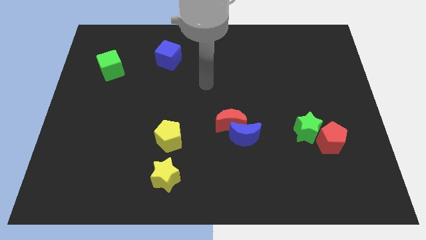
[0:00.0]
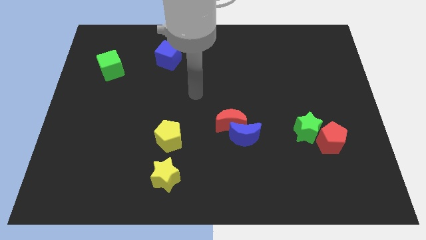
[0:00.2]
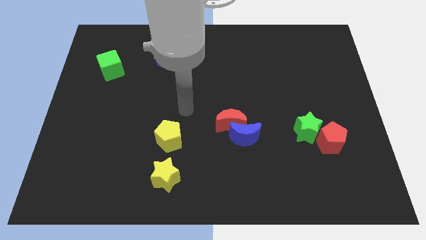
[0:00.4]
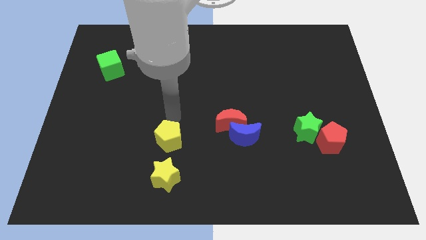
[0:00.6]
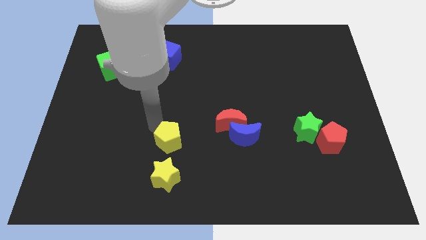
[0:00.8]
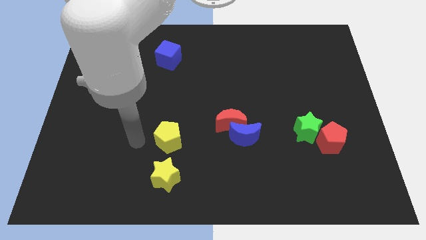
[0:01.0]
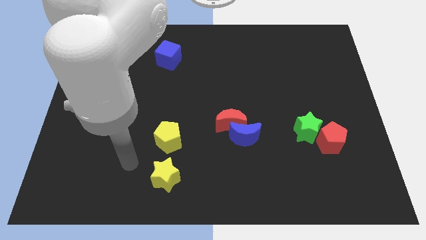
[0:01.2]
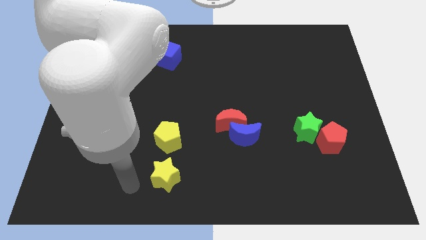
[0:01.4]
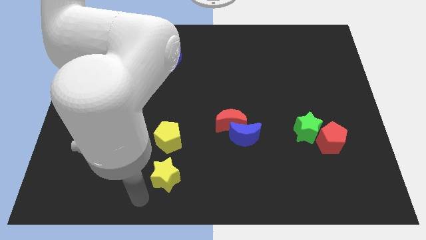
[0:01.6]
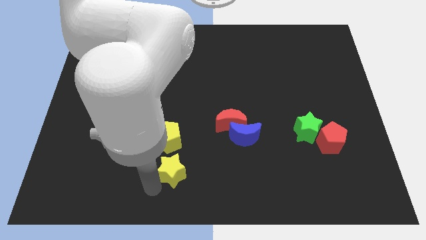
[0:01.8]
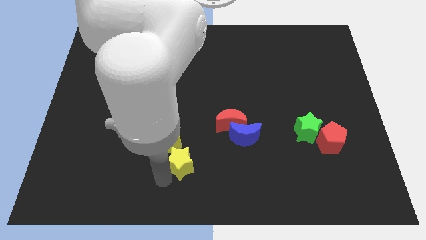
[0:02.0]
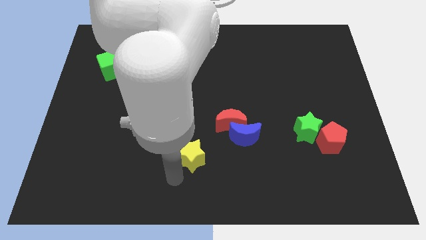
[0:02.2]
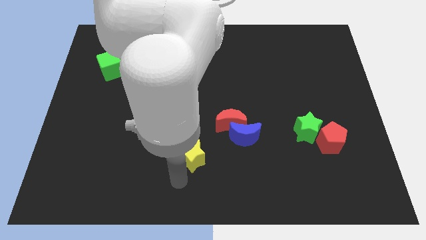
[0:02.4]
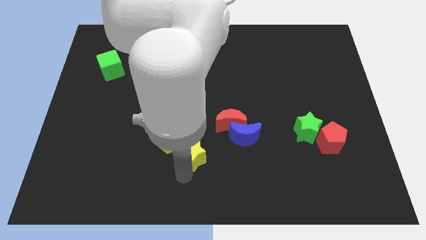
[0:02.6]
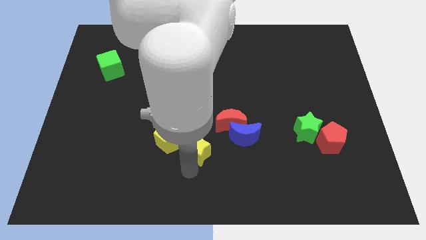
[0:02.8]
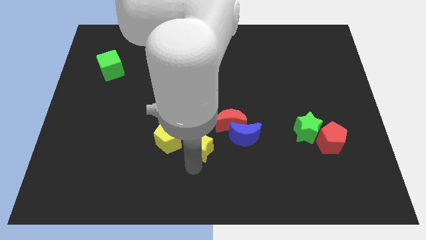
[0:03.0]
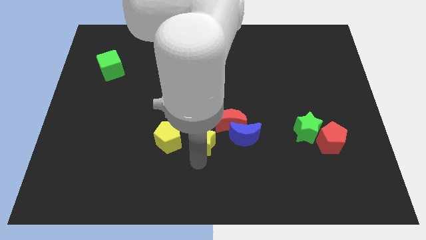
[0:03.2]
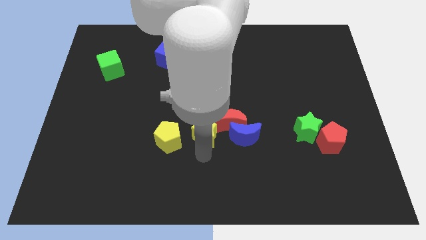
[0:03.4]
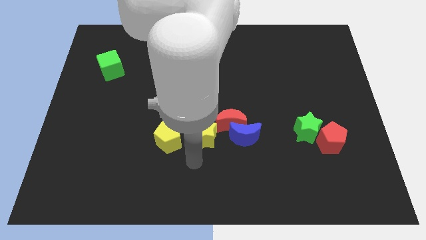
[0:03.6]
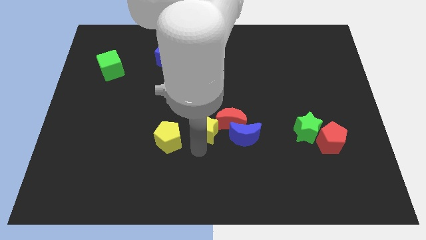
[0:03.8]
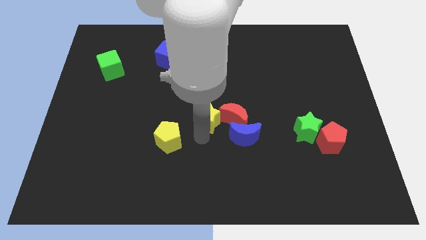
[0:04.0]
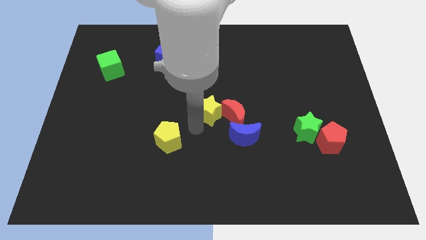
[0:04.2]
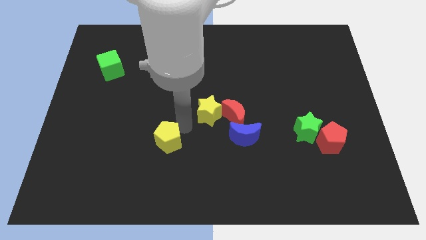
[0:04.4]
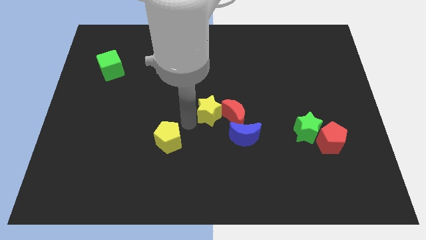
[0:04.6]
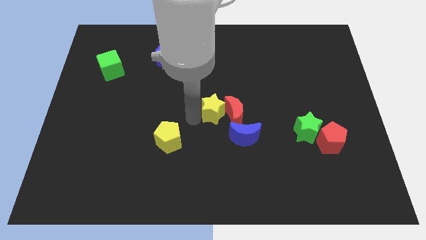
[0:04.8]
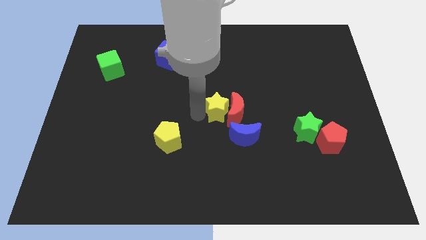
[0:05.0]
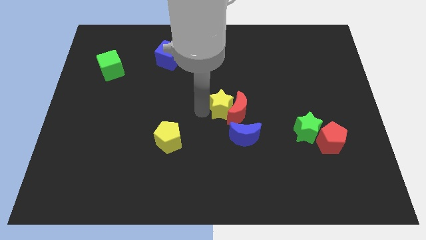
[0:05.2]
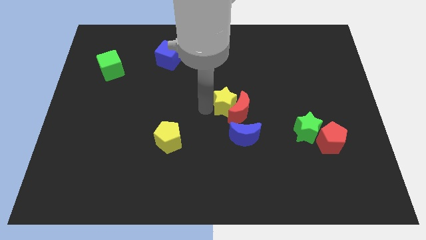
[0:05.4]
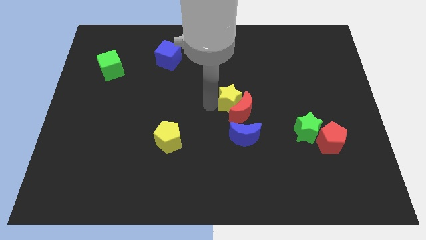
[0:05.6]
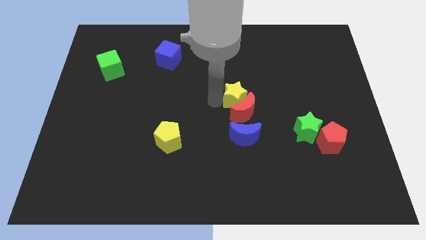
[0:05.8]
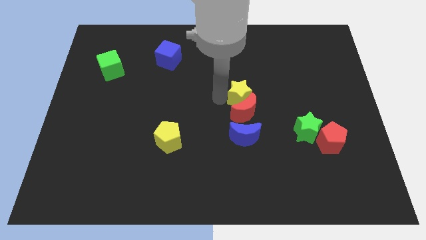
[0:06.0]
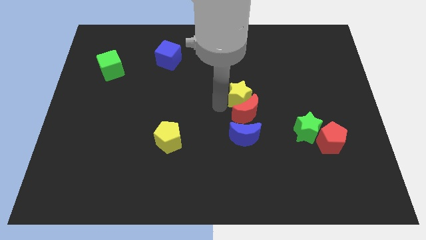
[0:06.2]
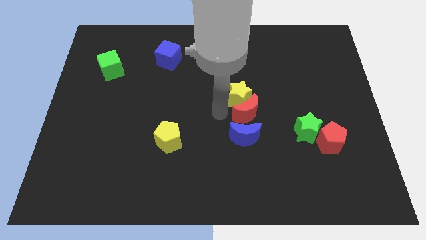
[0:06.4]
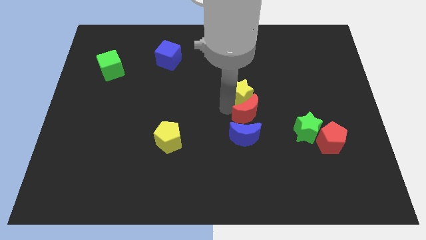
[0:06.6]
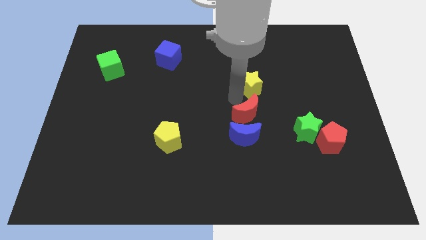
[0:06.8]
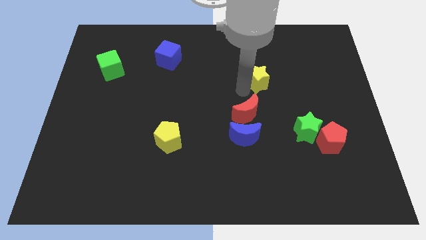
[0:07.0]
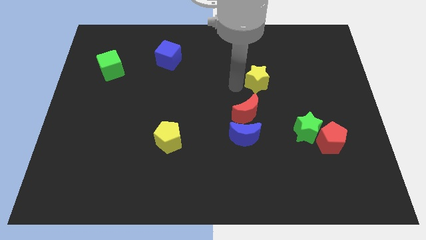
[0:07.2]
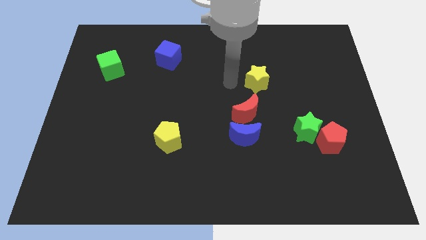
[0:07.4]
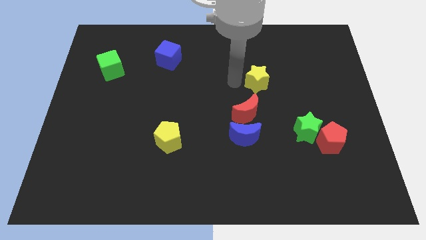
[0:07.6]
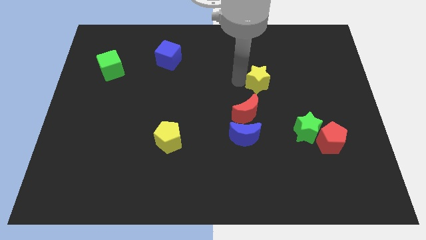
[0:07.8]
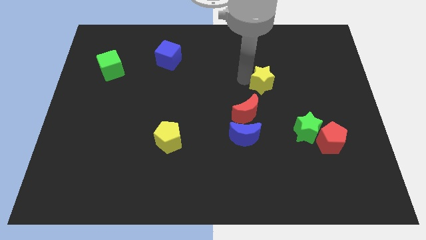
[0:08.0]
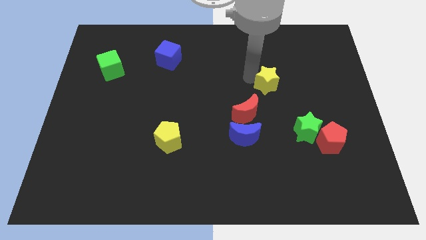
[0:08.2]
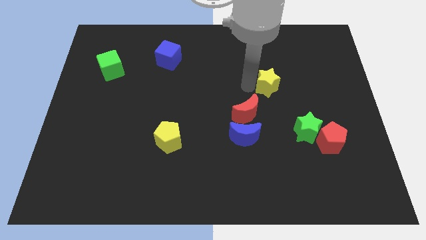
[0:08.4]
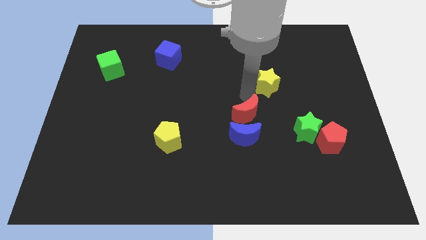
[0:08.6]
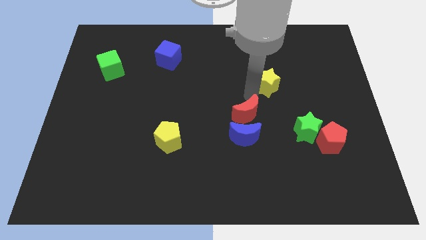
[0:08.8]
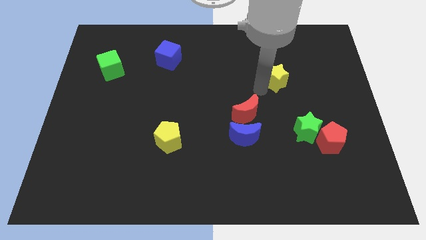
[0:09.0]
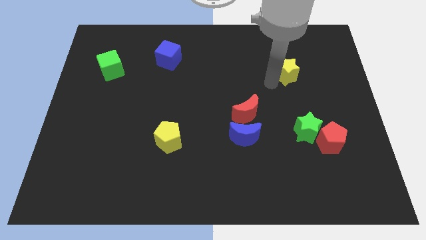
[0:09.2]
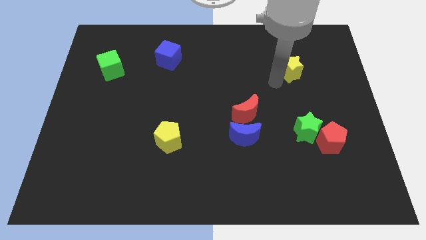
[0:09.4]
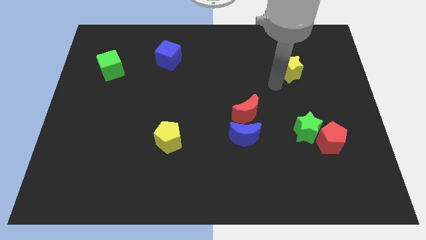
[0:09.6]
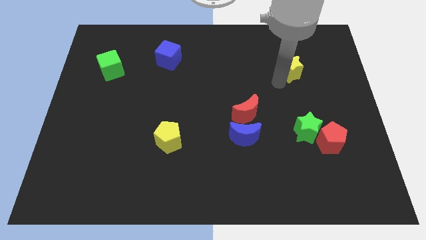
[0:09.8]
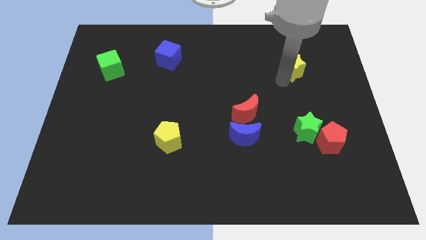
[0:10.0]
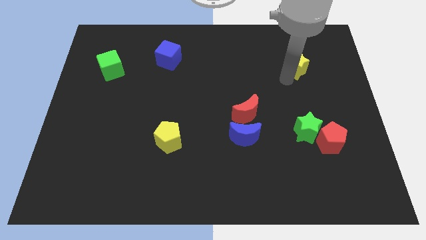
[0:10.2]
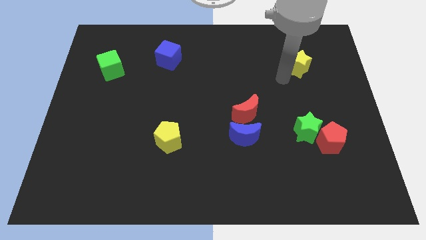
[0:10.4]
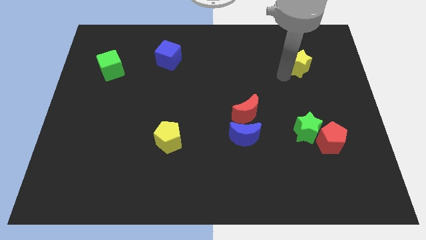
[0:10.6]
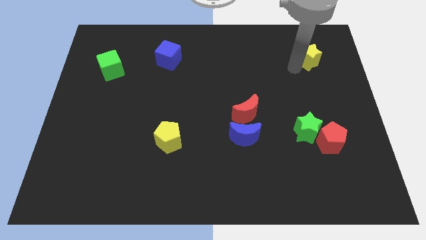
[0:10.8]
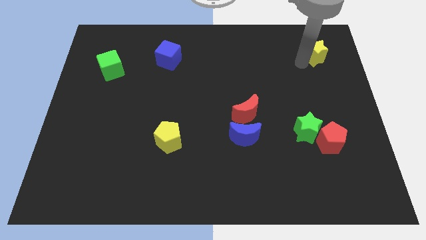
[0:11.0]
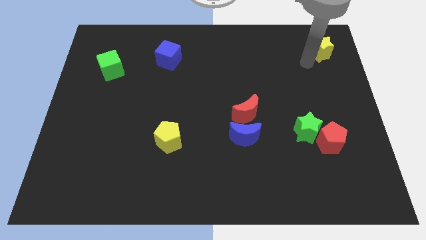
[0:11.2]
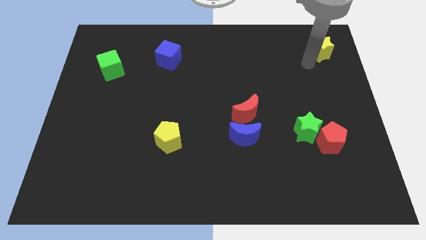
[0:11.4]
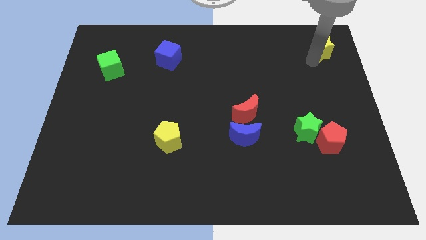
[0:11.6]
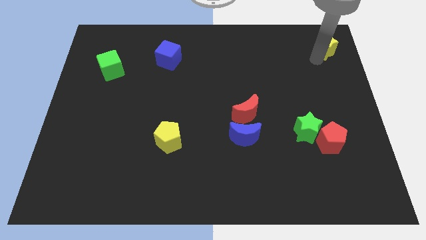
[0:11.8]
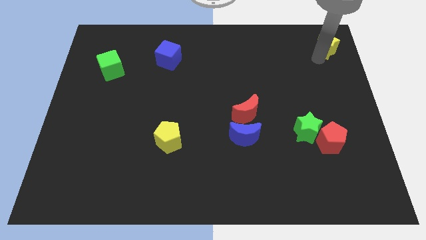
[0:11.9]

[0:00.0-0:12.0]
slide the yellow star to the top right of the board

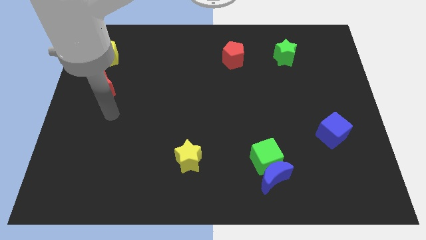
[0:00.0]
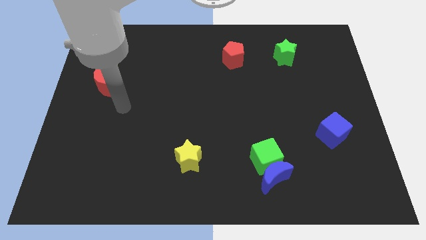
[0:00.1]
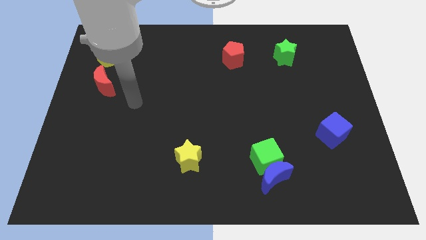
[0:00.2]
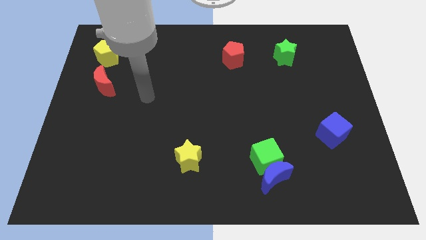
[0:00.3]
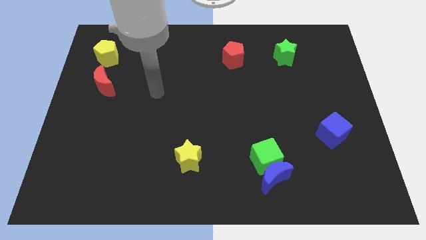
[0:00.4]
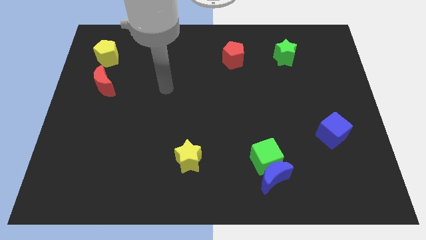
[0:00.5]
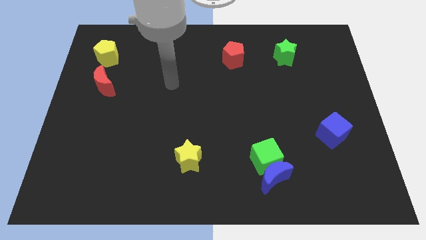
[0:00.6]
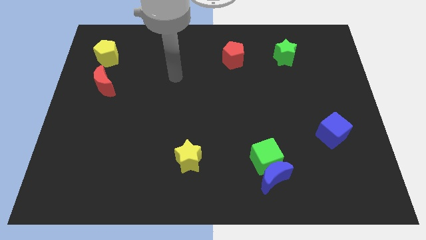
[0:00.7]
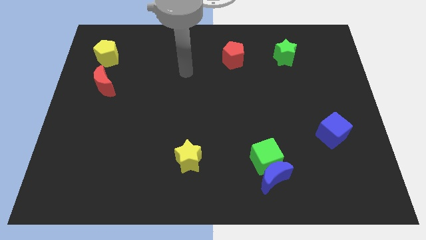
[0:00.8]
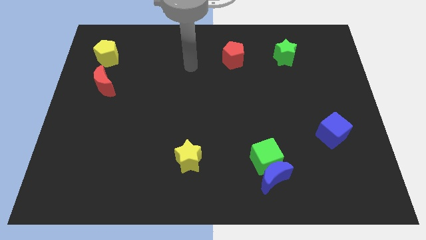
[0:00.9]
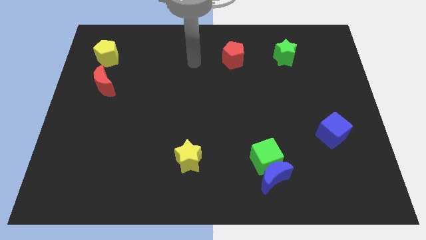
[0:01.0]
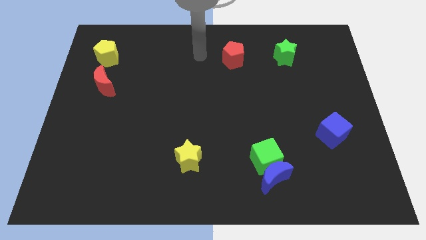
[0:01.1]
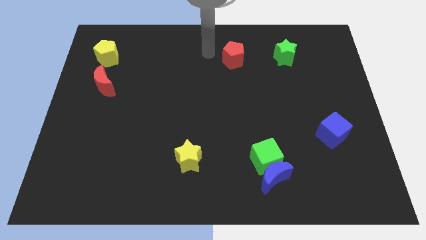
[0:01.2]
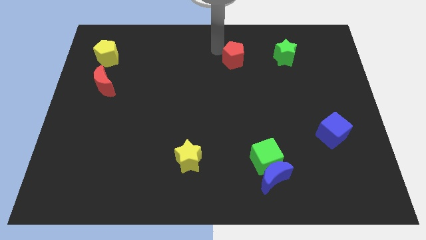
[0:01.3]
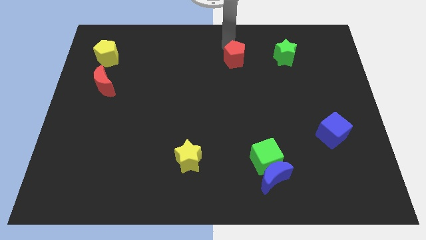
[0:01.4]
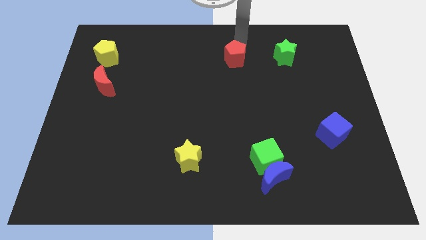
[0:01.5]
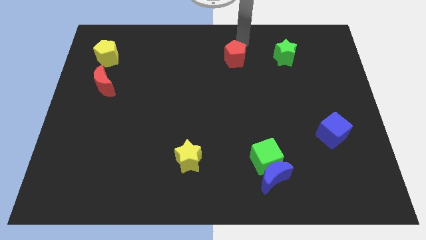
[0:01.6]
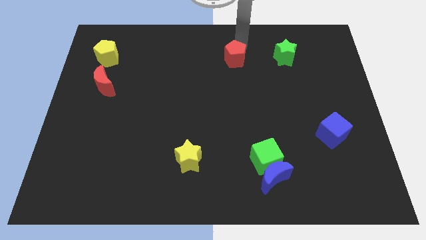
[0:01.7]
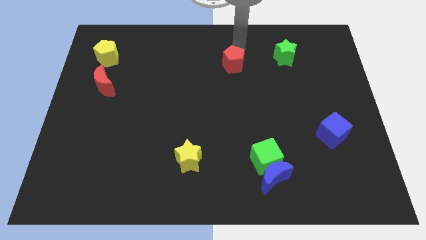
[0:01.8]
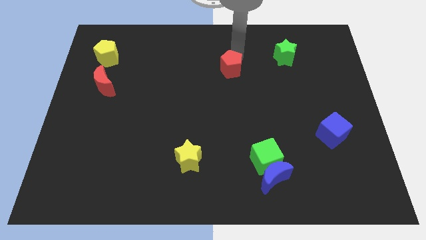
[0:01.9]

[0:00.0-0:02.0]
push the red pentagon to the center of the board
